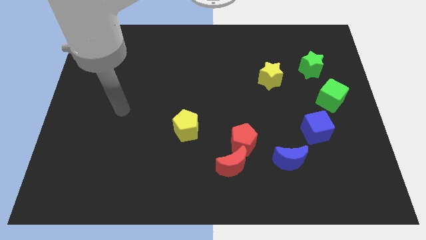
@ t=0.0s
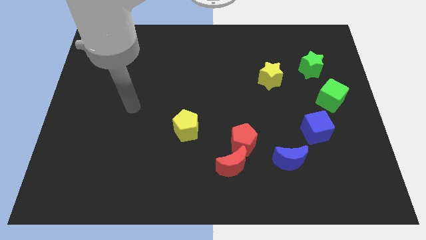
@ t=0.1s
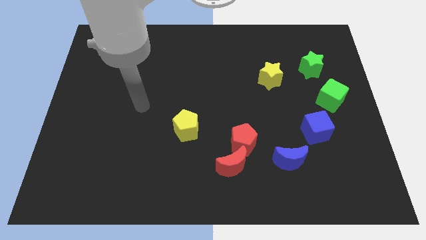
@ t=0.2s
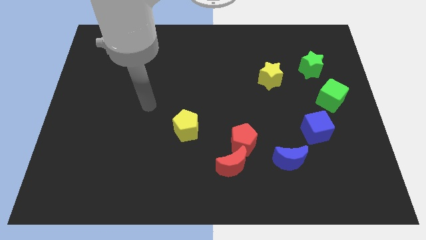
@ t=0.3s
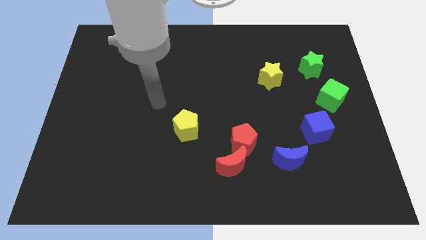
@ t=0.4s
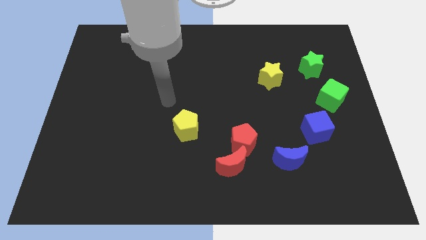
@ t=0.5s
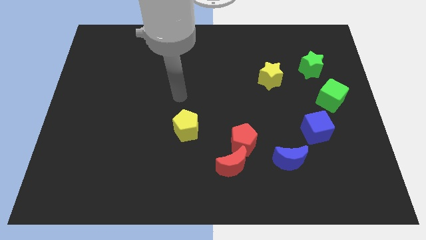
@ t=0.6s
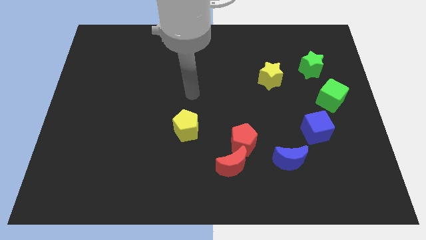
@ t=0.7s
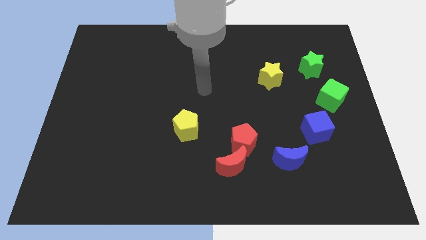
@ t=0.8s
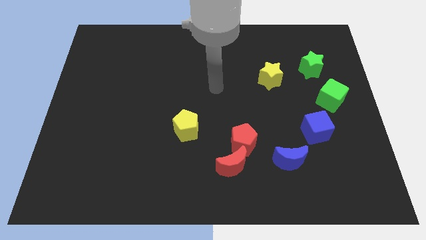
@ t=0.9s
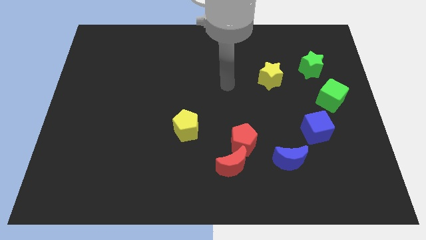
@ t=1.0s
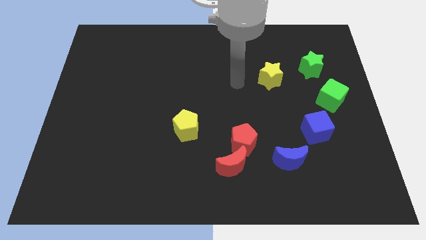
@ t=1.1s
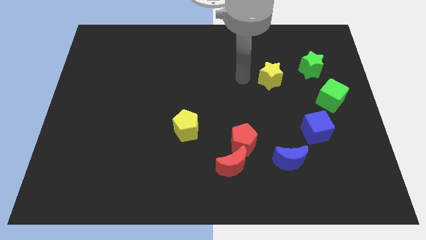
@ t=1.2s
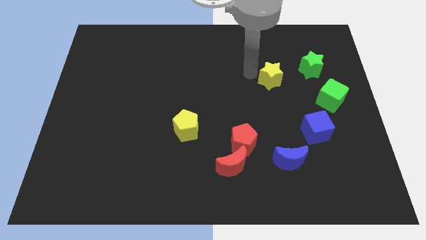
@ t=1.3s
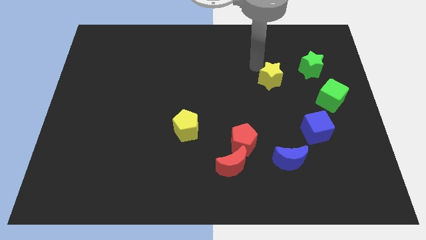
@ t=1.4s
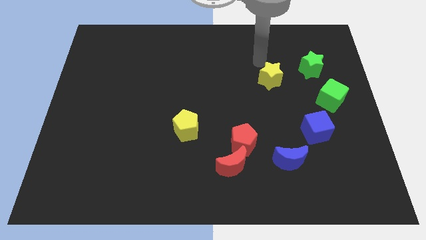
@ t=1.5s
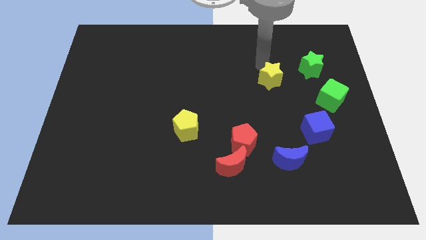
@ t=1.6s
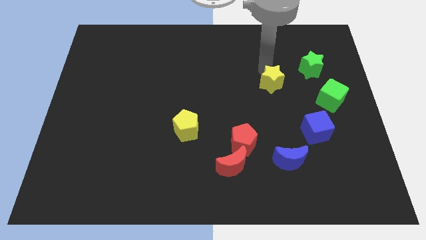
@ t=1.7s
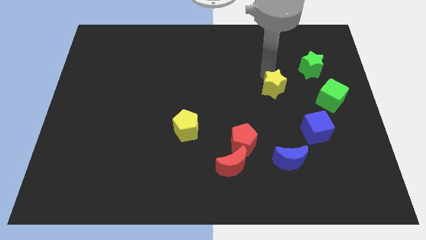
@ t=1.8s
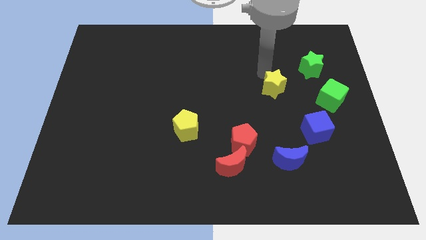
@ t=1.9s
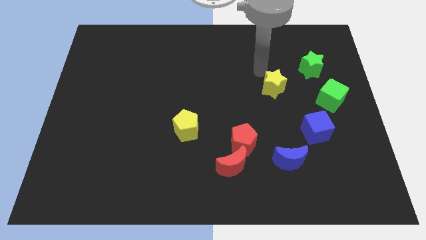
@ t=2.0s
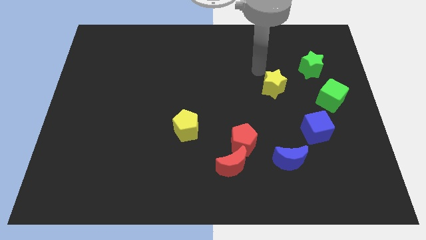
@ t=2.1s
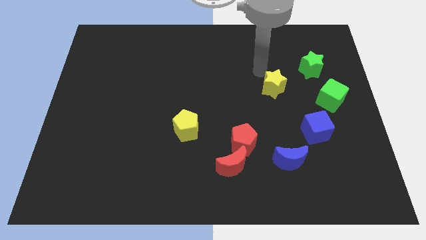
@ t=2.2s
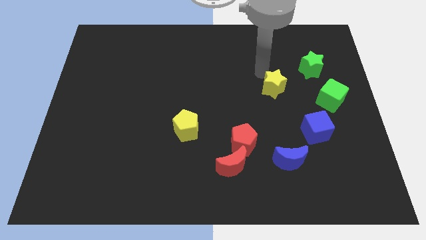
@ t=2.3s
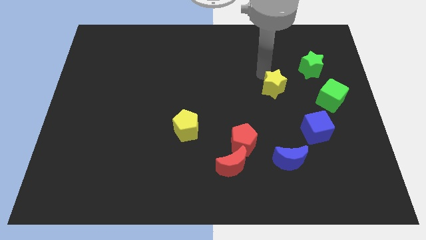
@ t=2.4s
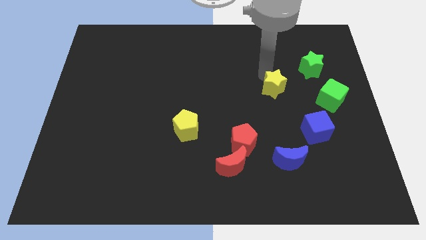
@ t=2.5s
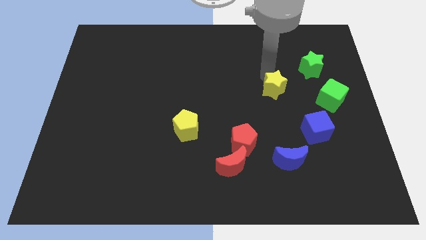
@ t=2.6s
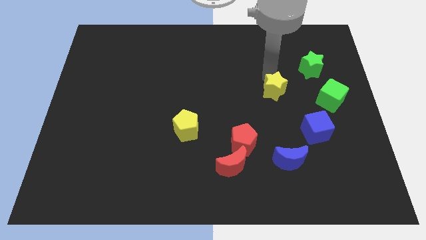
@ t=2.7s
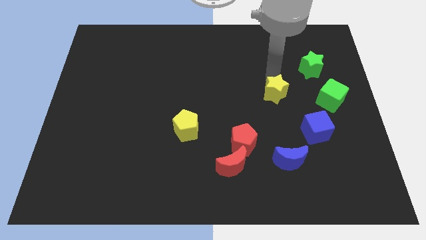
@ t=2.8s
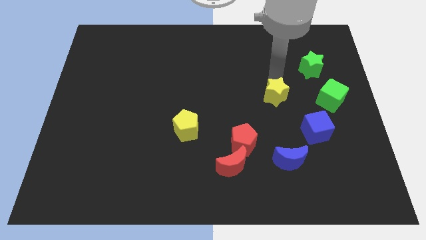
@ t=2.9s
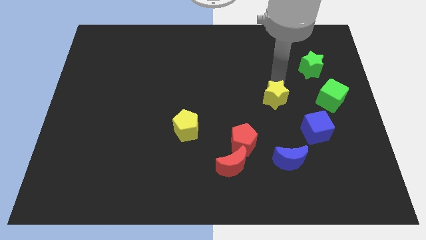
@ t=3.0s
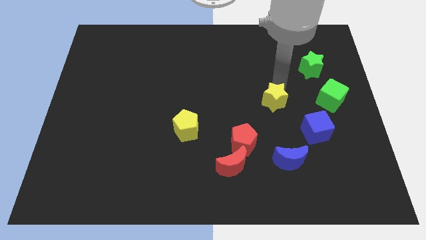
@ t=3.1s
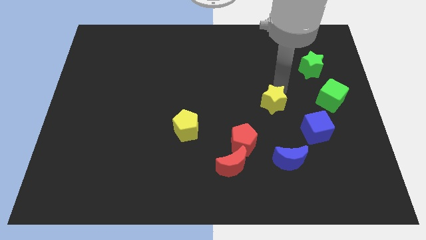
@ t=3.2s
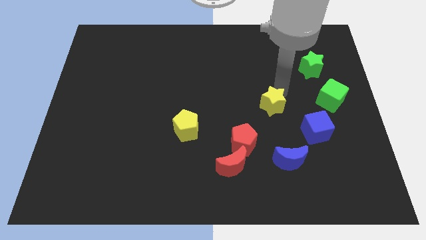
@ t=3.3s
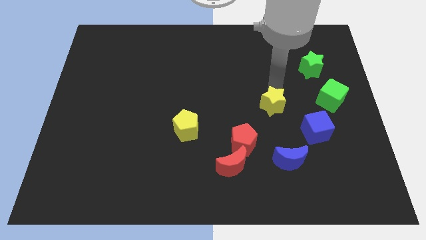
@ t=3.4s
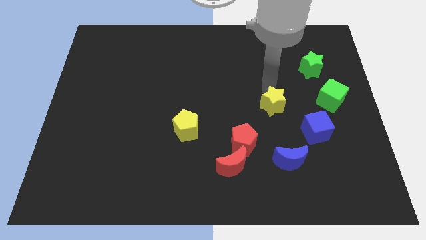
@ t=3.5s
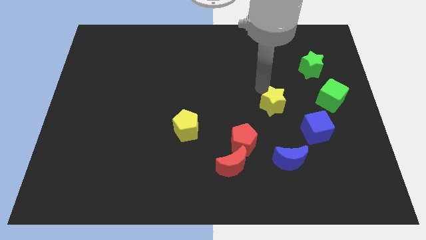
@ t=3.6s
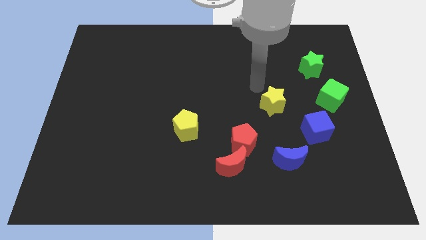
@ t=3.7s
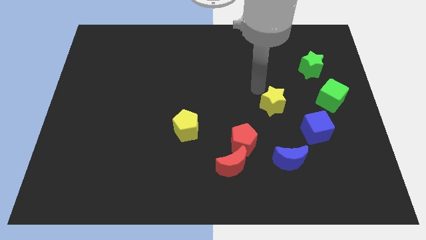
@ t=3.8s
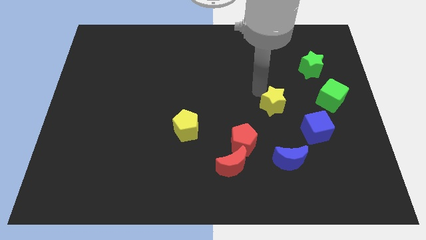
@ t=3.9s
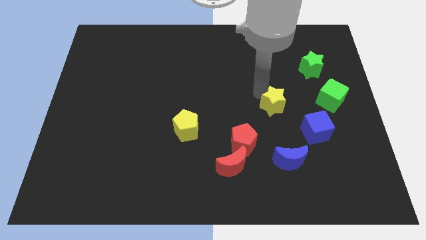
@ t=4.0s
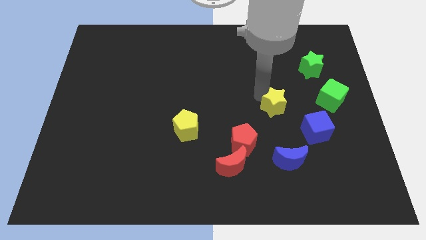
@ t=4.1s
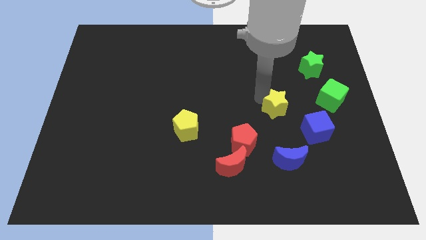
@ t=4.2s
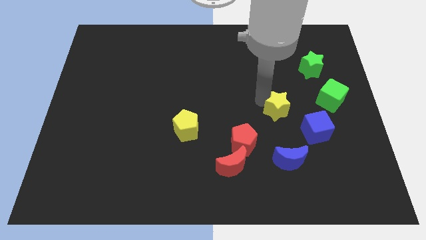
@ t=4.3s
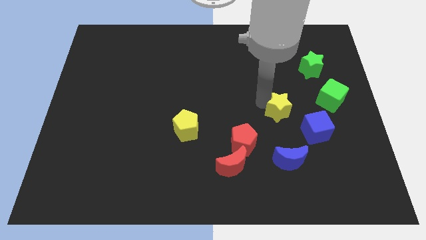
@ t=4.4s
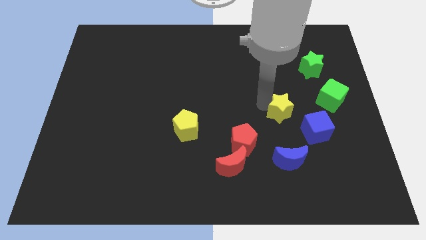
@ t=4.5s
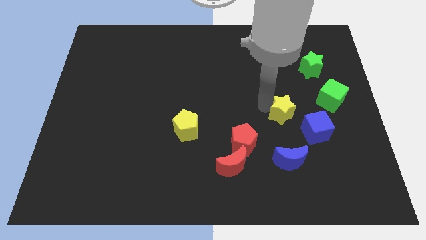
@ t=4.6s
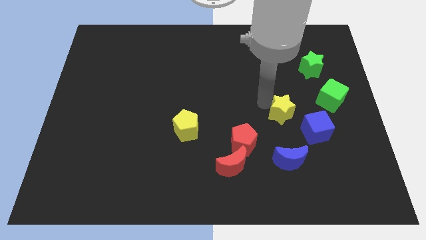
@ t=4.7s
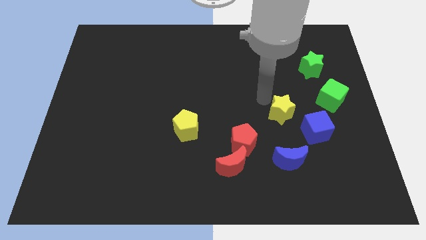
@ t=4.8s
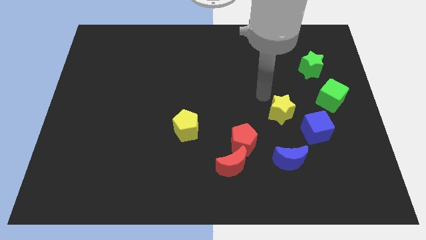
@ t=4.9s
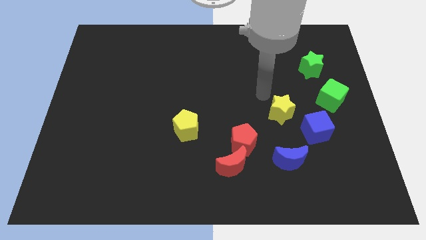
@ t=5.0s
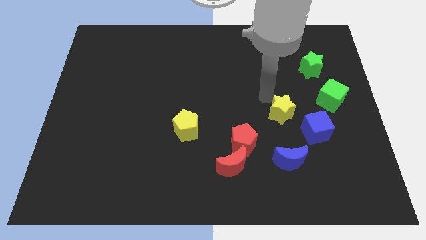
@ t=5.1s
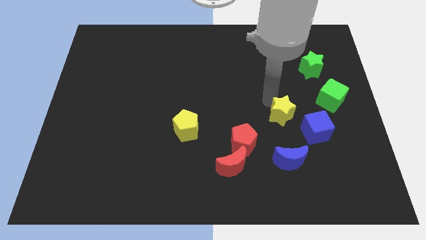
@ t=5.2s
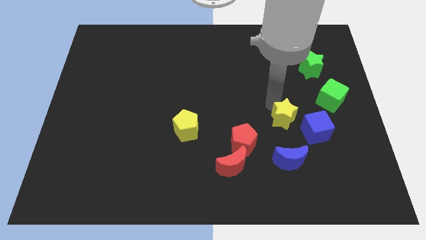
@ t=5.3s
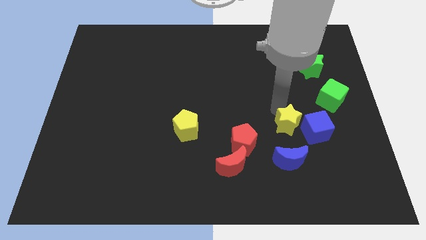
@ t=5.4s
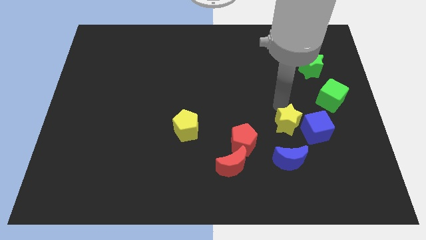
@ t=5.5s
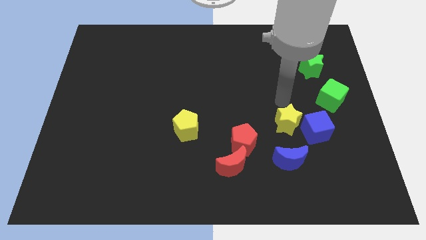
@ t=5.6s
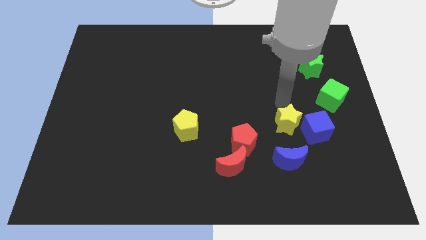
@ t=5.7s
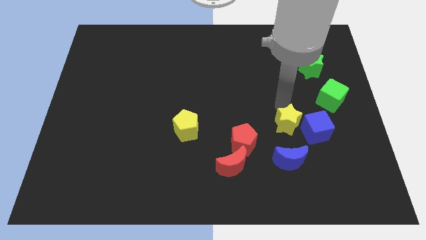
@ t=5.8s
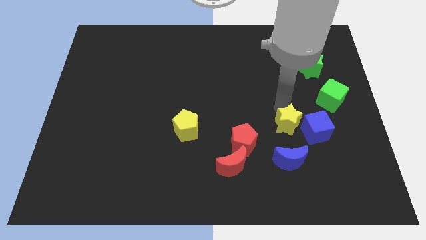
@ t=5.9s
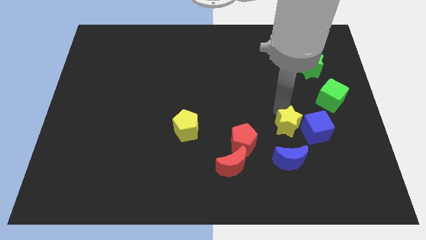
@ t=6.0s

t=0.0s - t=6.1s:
move the yellow star to the right side of the red pentagon

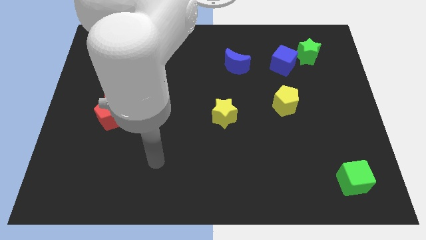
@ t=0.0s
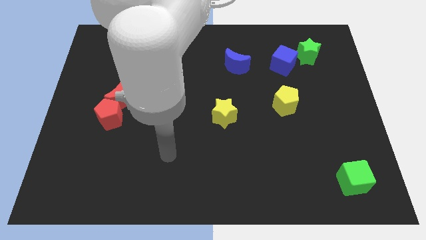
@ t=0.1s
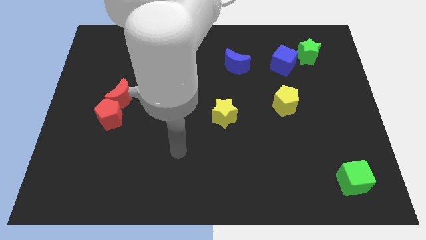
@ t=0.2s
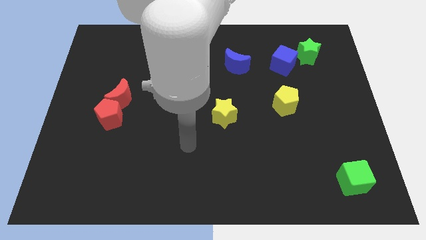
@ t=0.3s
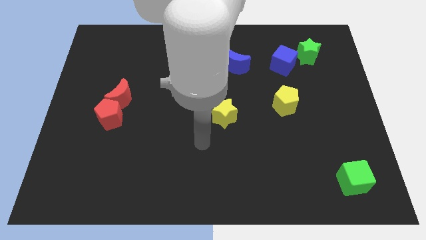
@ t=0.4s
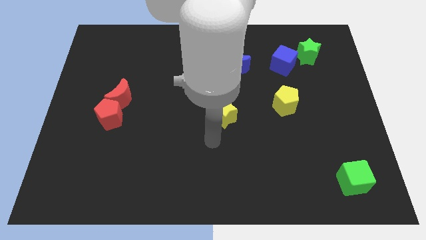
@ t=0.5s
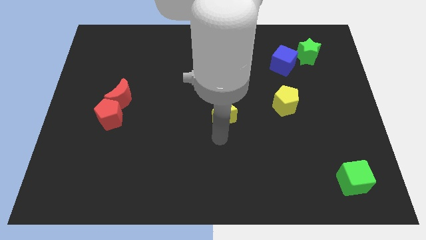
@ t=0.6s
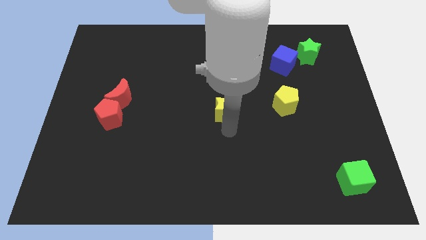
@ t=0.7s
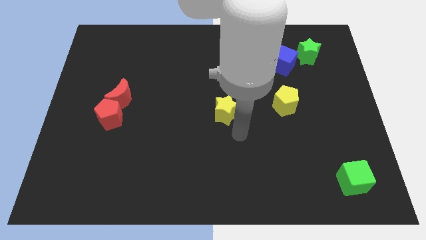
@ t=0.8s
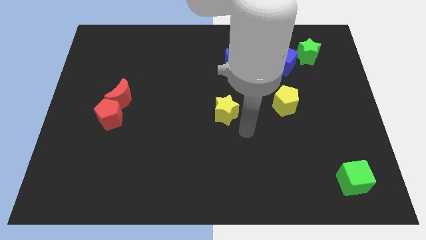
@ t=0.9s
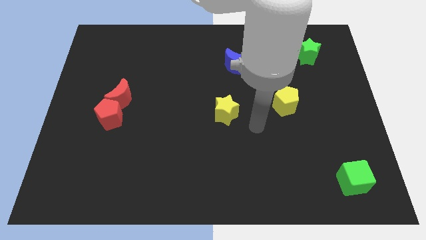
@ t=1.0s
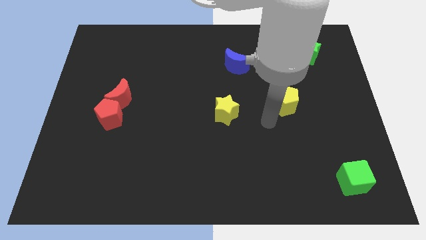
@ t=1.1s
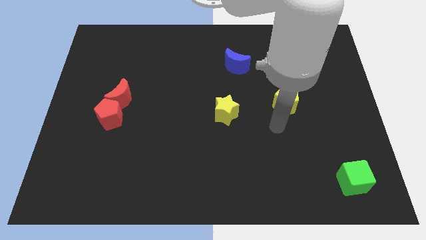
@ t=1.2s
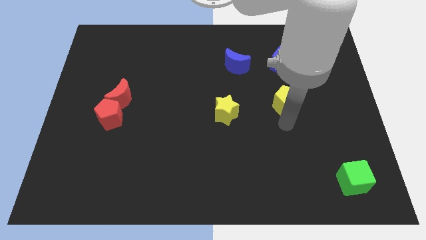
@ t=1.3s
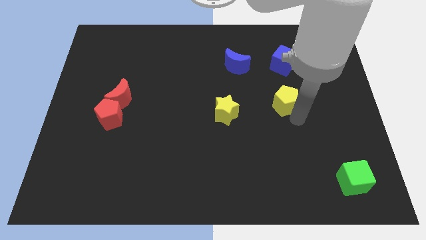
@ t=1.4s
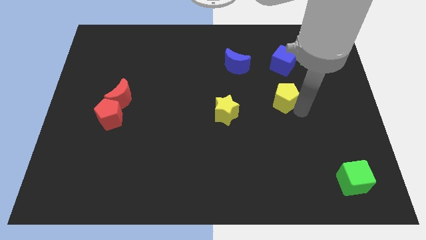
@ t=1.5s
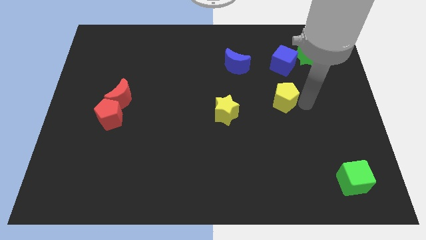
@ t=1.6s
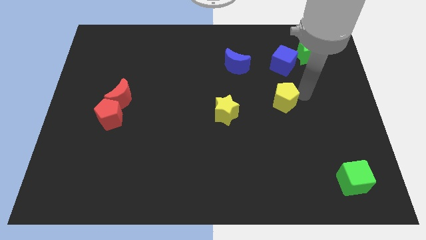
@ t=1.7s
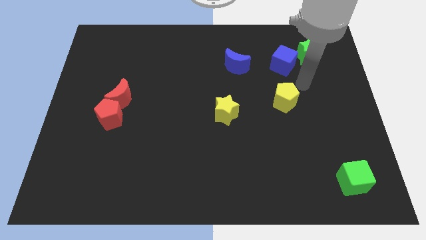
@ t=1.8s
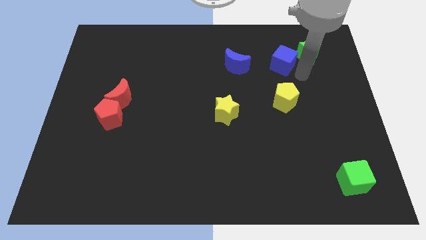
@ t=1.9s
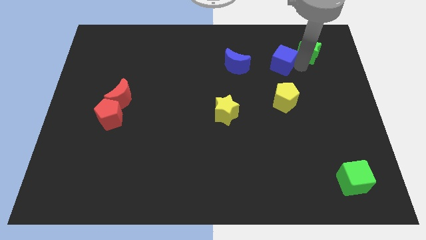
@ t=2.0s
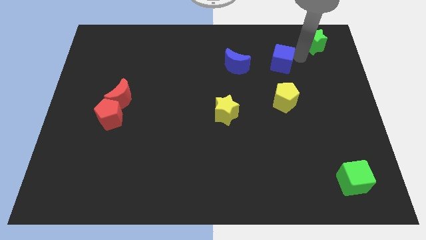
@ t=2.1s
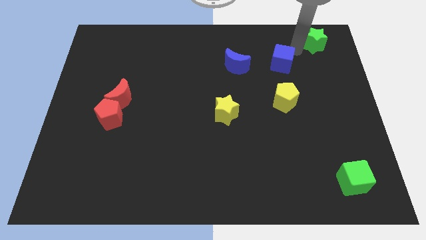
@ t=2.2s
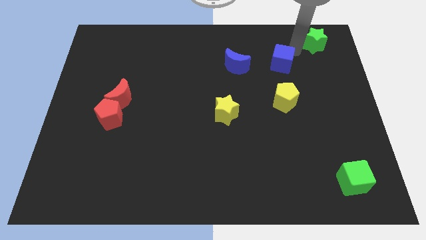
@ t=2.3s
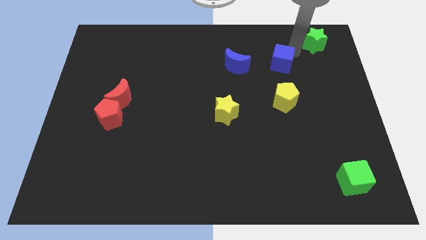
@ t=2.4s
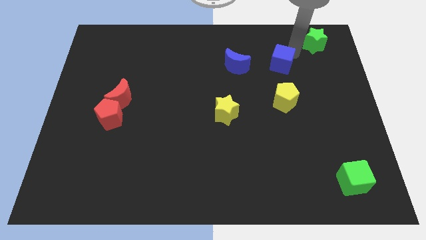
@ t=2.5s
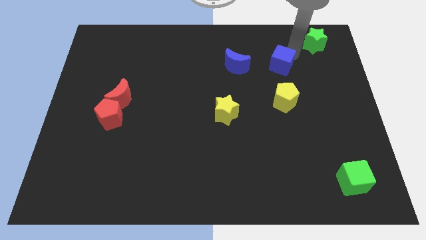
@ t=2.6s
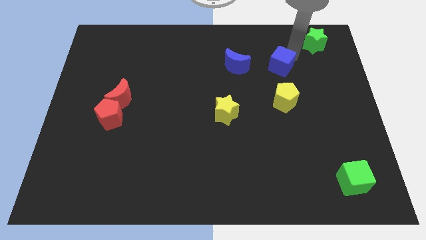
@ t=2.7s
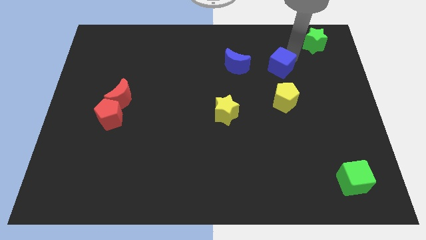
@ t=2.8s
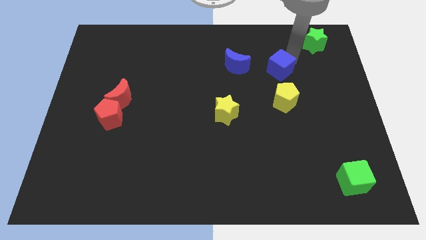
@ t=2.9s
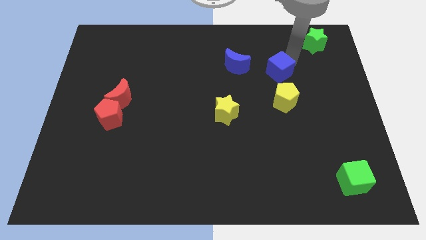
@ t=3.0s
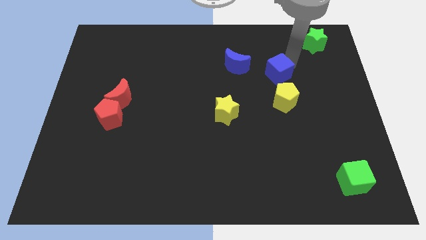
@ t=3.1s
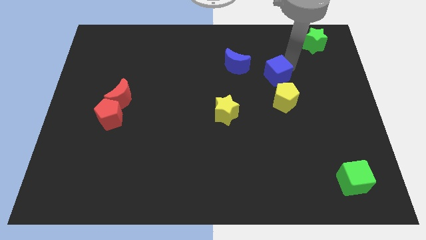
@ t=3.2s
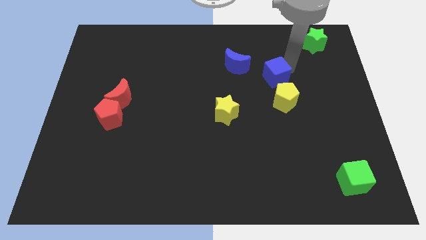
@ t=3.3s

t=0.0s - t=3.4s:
put the blue cube diagonally down and to the right of the blue moon
